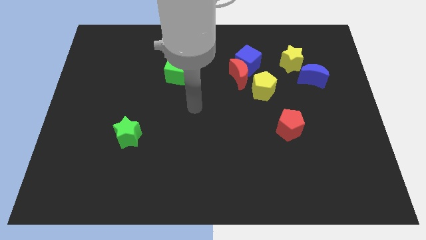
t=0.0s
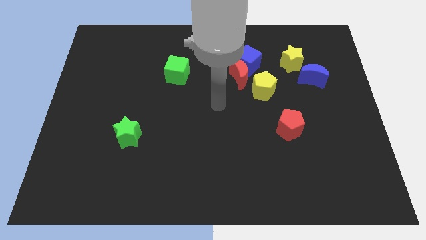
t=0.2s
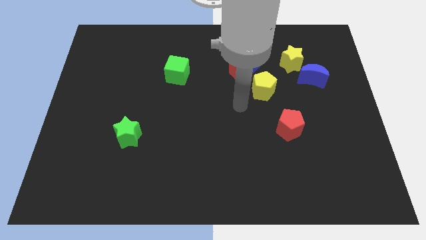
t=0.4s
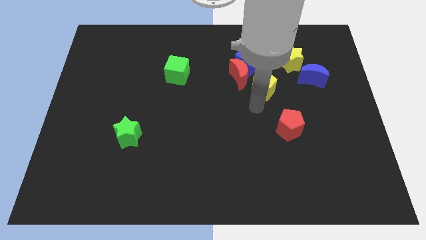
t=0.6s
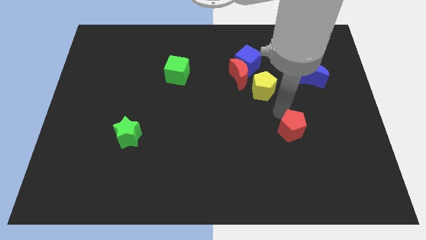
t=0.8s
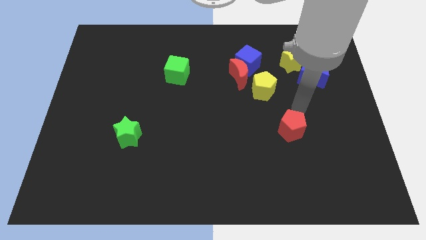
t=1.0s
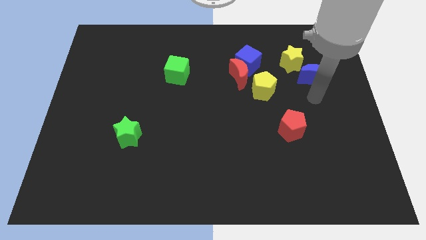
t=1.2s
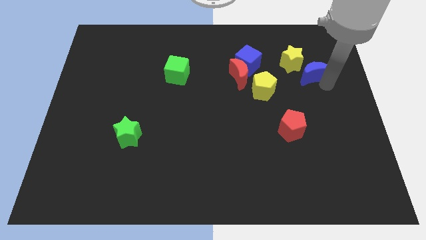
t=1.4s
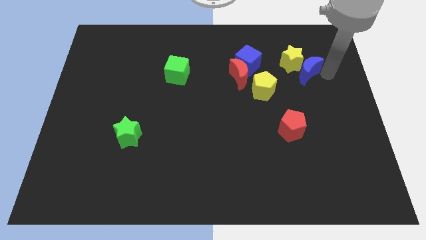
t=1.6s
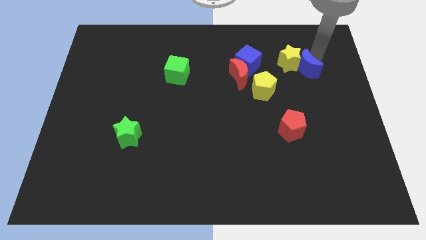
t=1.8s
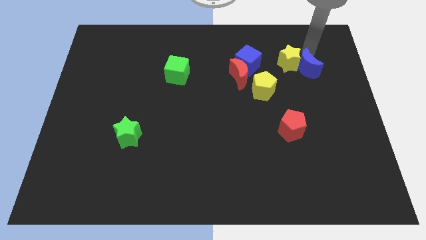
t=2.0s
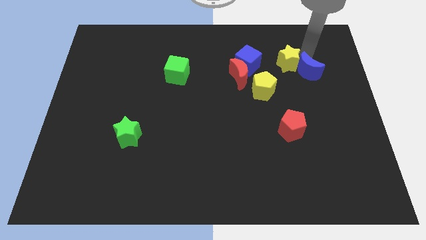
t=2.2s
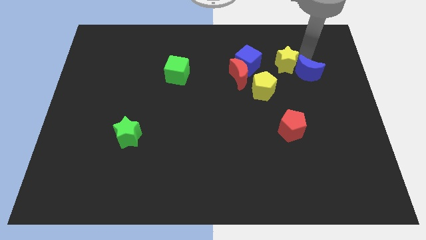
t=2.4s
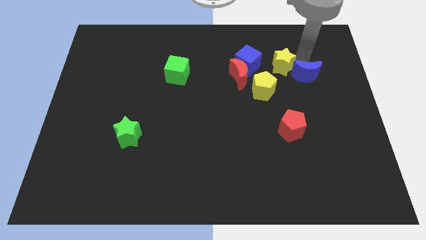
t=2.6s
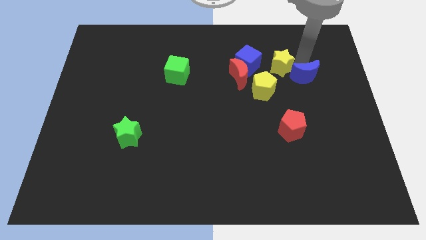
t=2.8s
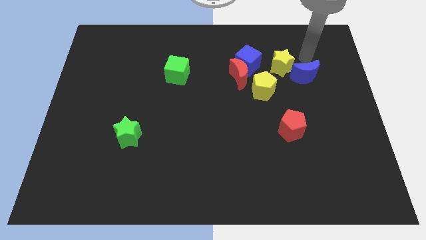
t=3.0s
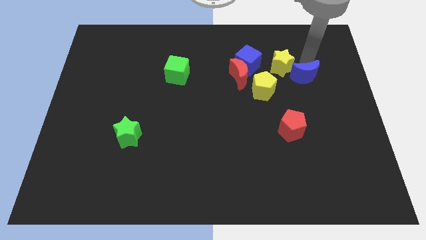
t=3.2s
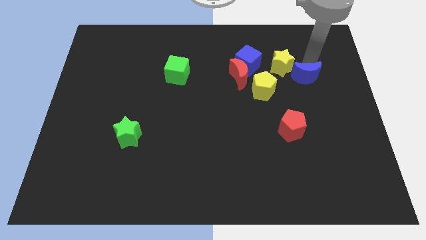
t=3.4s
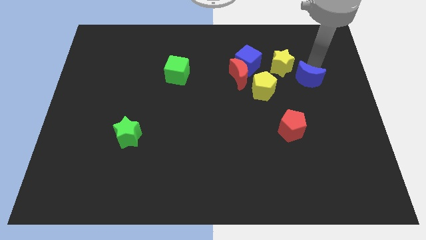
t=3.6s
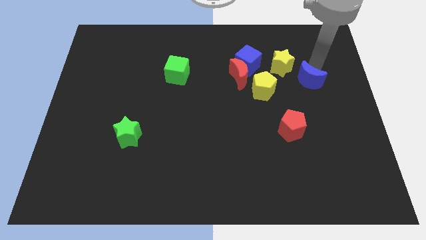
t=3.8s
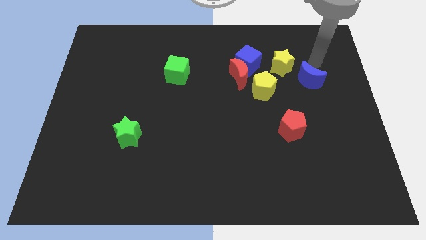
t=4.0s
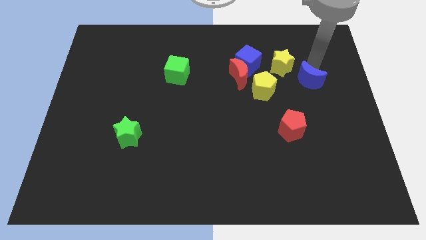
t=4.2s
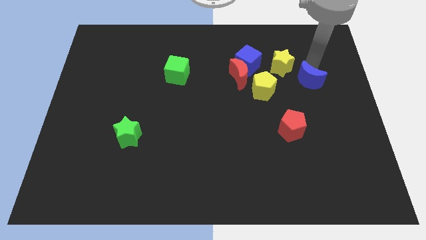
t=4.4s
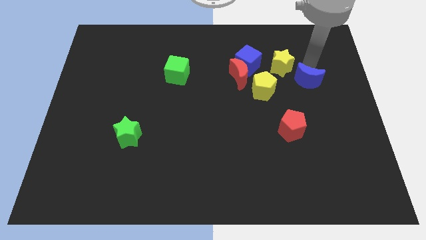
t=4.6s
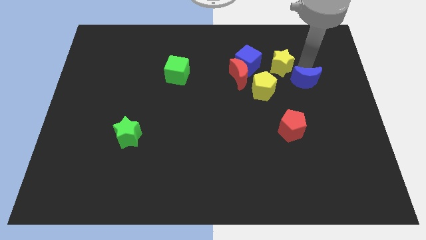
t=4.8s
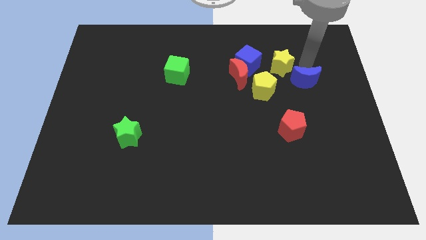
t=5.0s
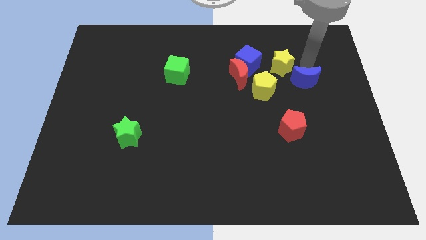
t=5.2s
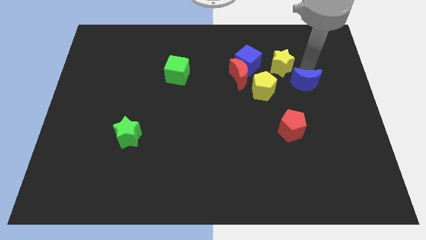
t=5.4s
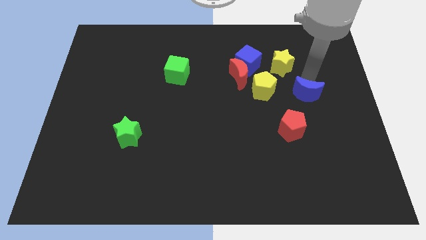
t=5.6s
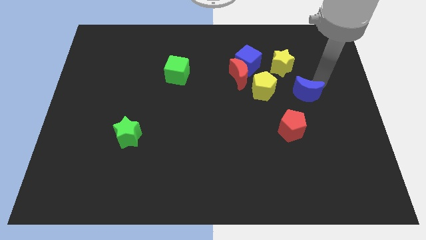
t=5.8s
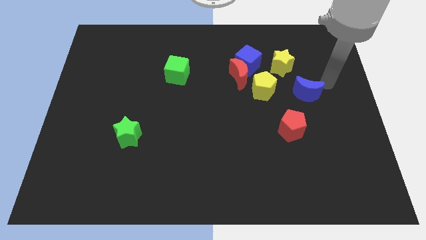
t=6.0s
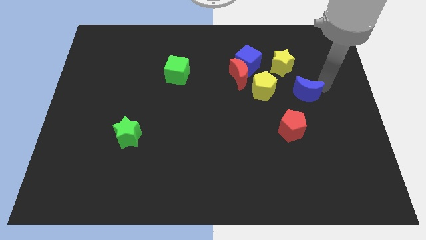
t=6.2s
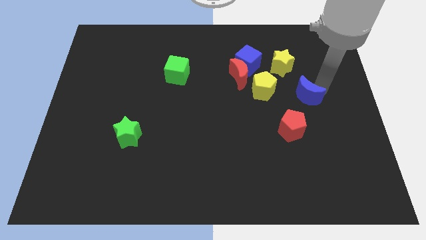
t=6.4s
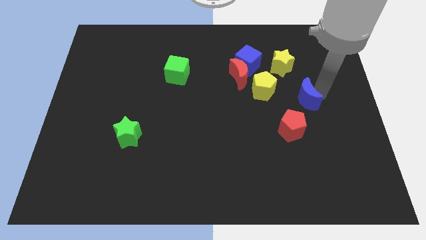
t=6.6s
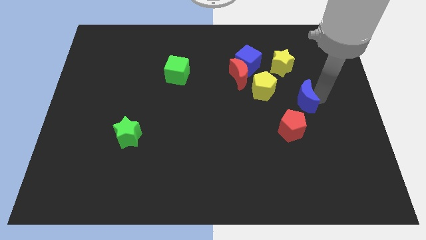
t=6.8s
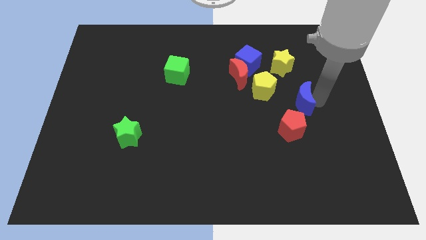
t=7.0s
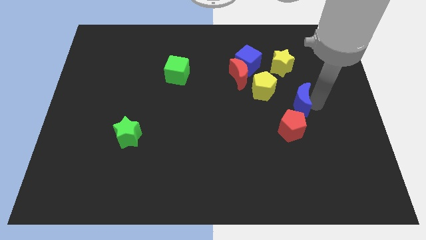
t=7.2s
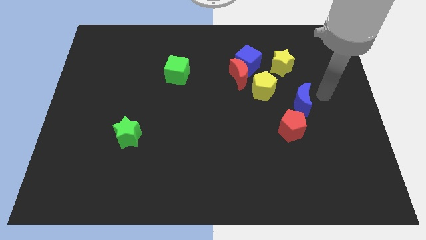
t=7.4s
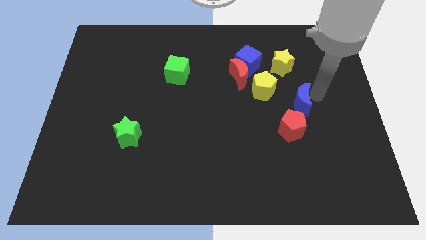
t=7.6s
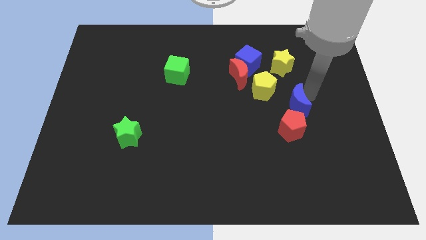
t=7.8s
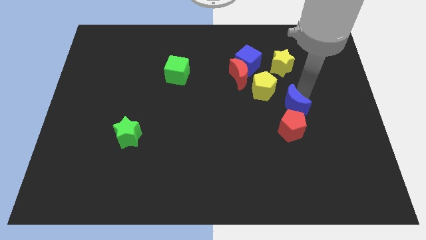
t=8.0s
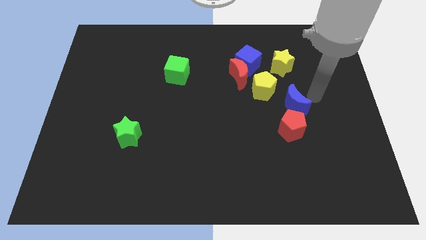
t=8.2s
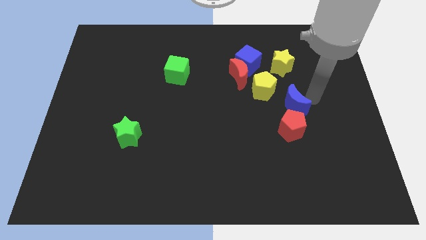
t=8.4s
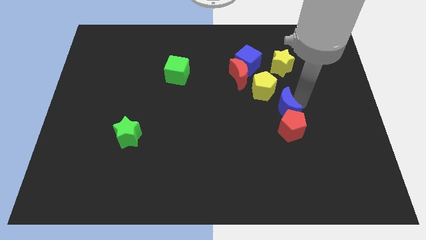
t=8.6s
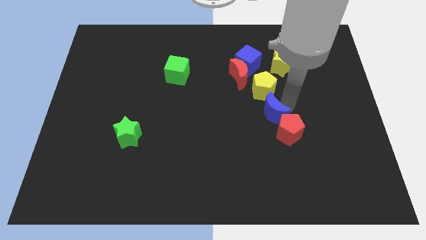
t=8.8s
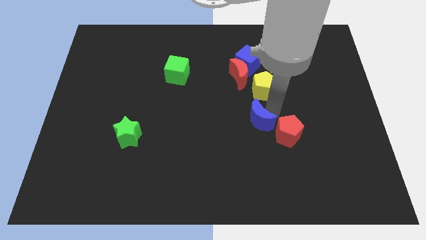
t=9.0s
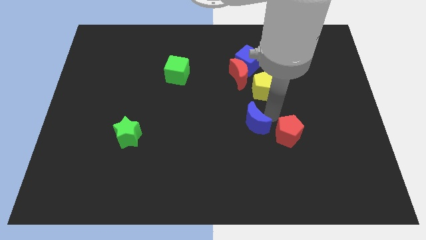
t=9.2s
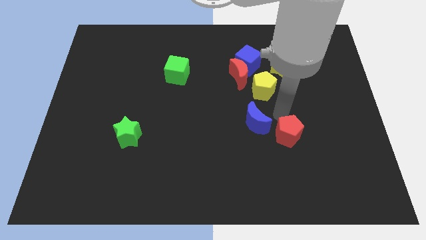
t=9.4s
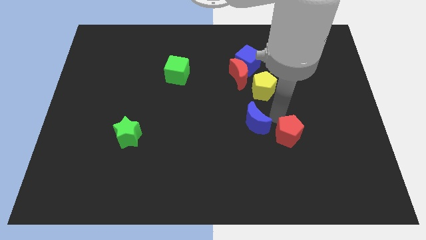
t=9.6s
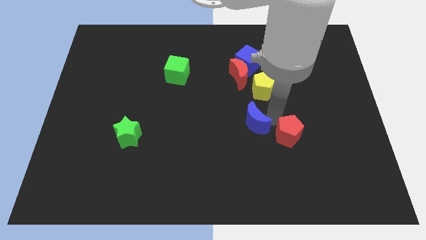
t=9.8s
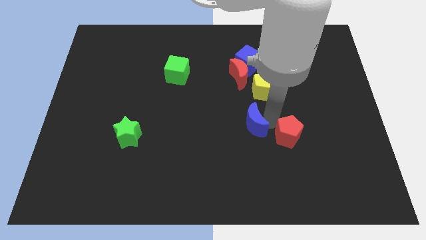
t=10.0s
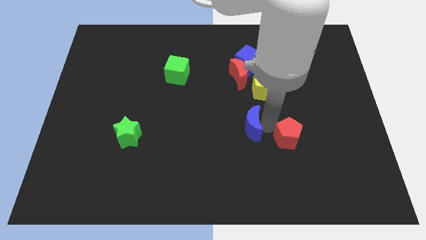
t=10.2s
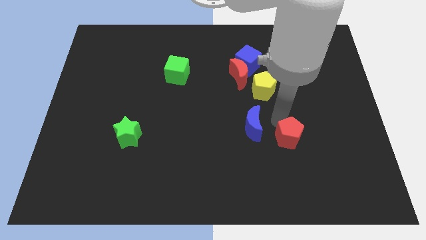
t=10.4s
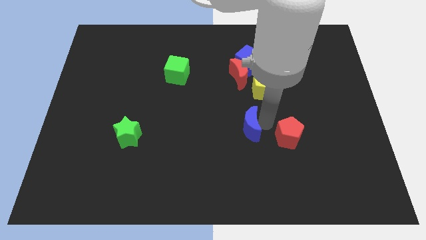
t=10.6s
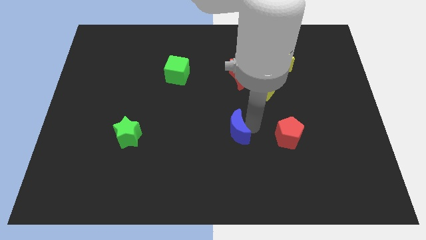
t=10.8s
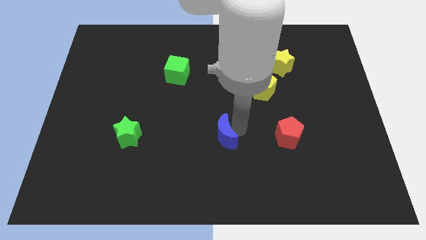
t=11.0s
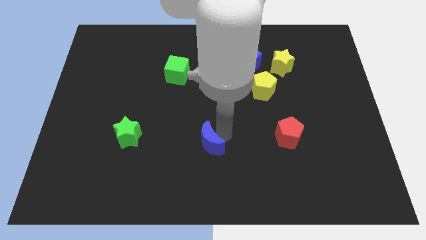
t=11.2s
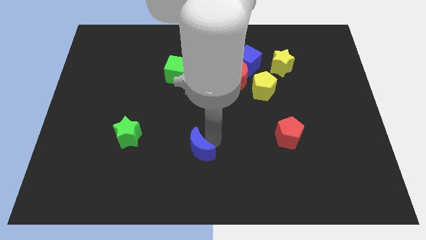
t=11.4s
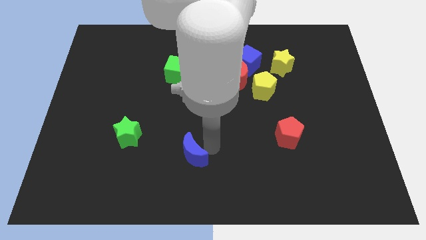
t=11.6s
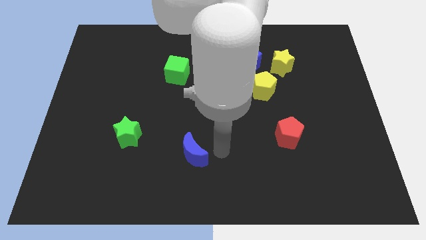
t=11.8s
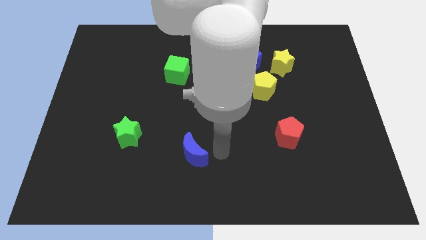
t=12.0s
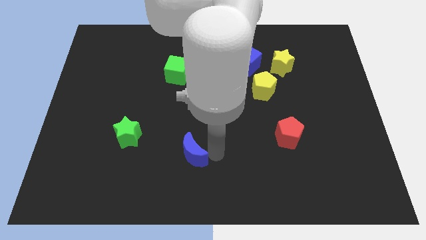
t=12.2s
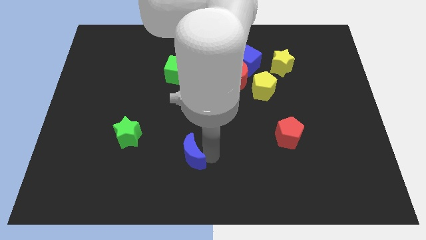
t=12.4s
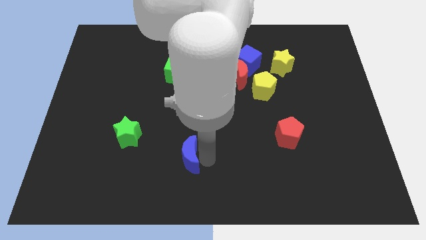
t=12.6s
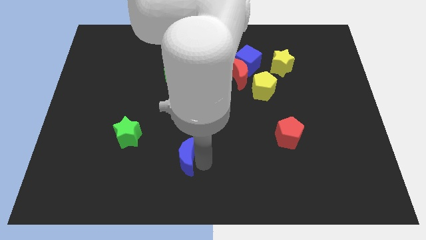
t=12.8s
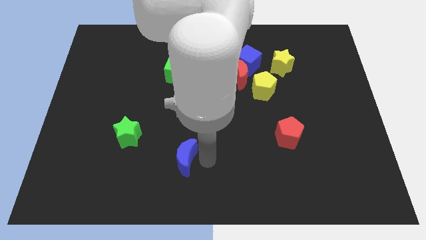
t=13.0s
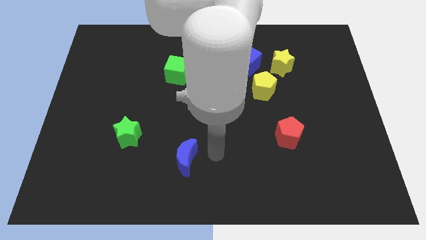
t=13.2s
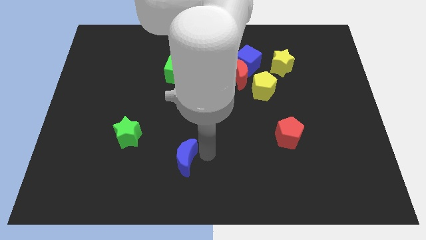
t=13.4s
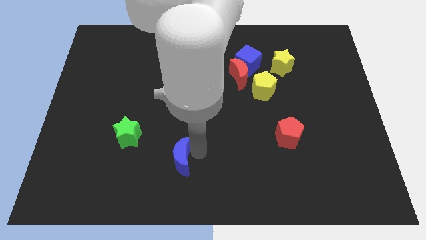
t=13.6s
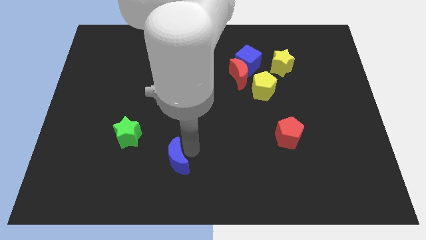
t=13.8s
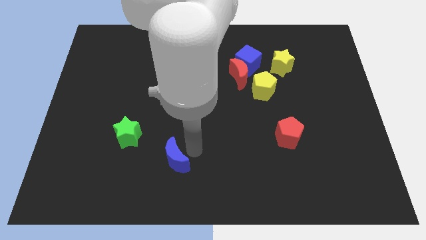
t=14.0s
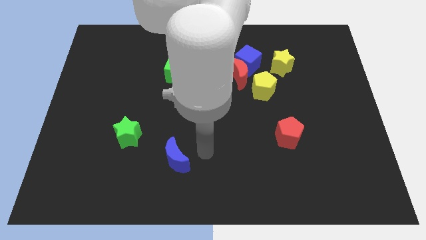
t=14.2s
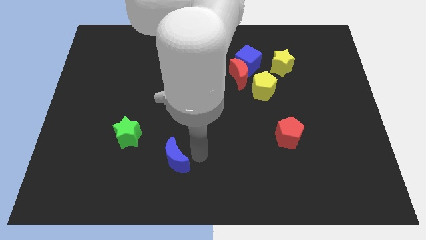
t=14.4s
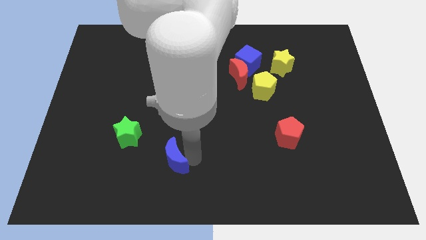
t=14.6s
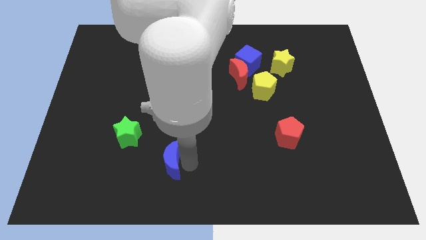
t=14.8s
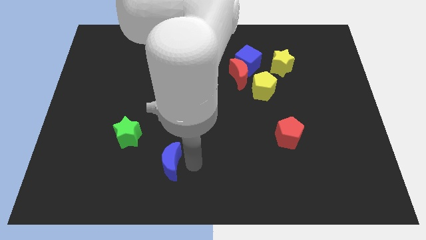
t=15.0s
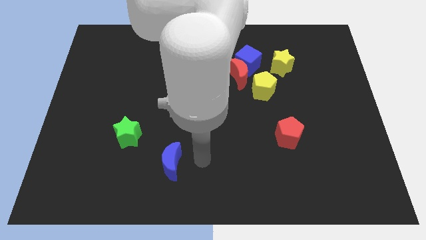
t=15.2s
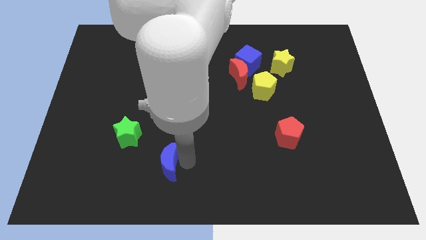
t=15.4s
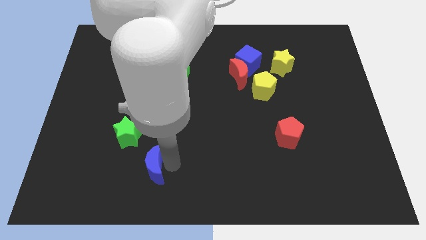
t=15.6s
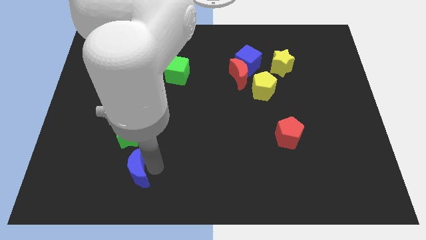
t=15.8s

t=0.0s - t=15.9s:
put the blue moon to the bottom side of the green star

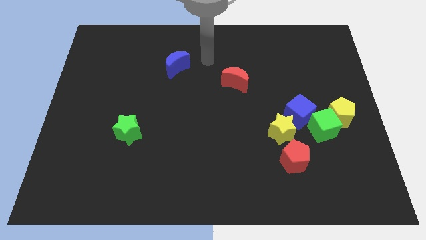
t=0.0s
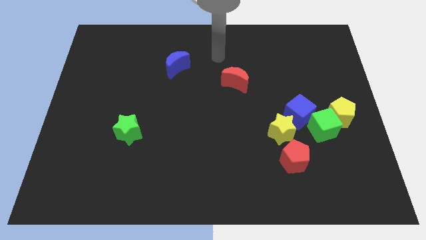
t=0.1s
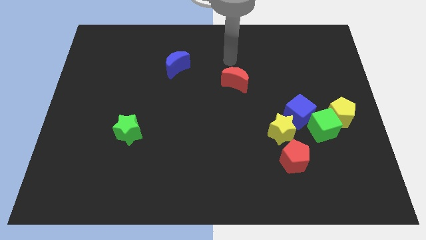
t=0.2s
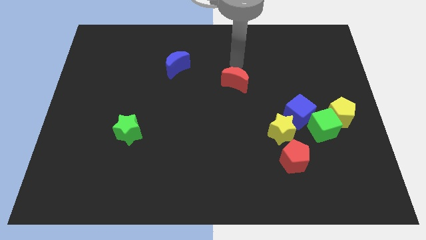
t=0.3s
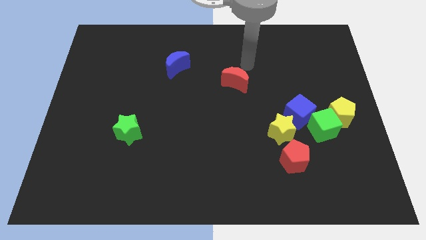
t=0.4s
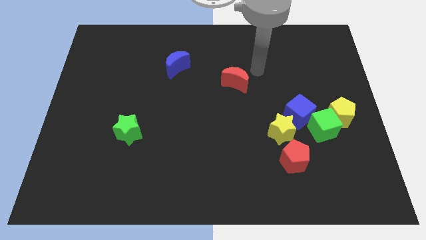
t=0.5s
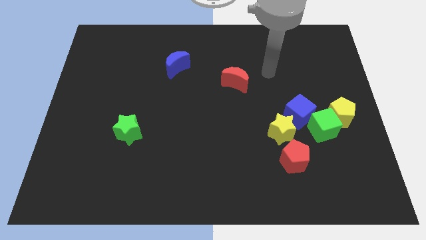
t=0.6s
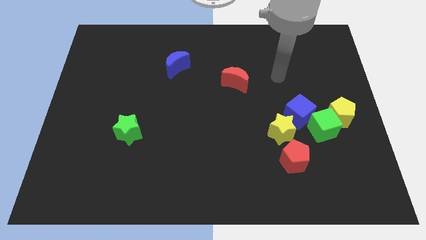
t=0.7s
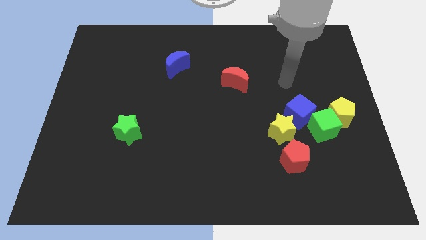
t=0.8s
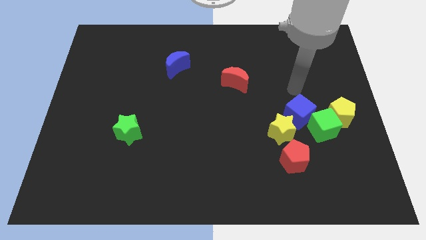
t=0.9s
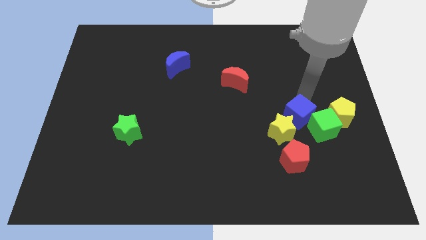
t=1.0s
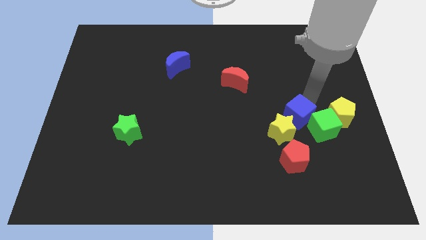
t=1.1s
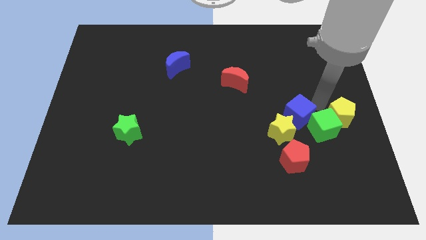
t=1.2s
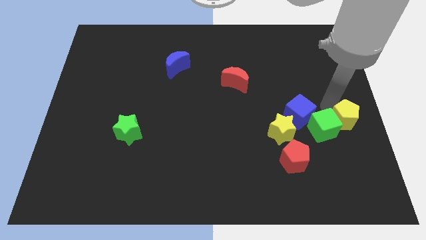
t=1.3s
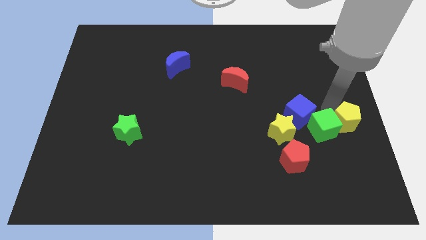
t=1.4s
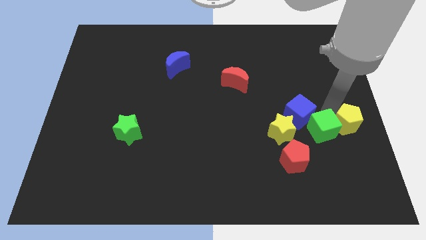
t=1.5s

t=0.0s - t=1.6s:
put the green cube to the bottom side of the blue cube
